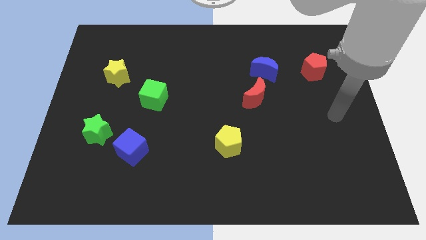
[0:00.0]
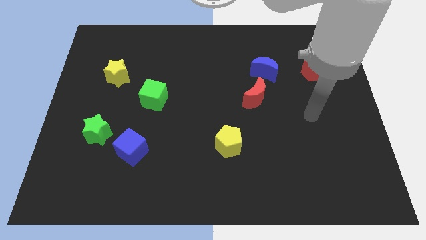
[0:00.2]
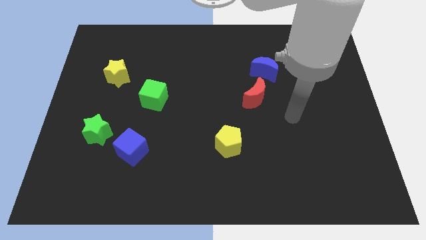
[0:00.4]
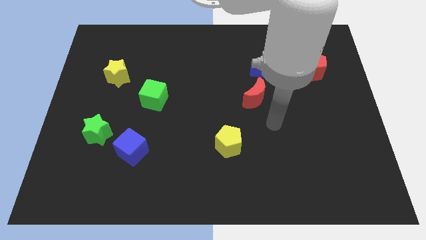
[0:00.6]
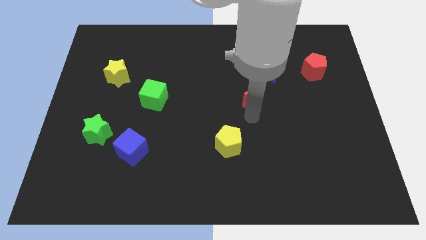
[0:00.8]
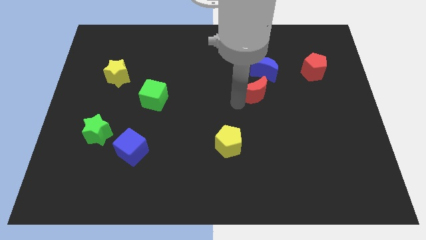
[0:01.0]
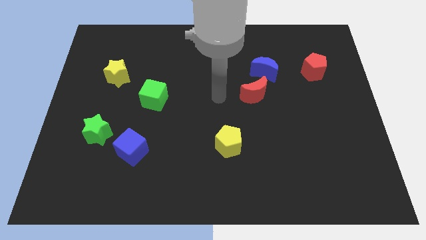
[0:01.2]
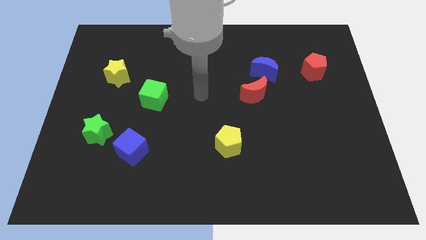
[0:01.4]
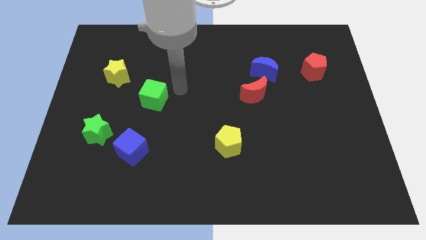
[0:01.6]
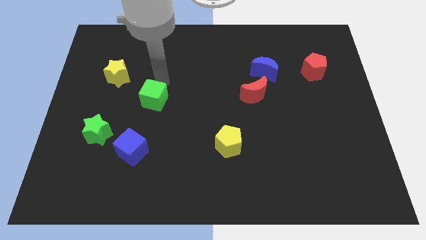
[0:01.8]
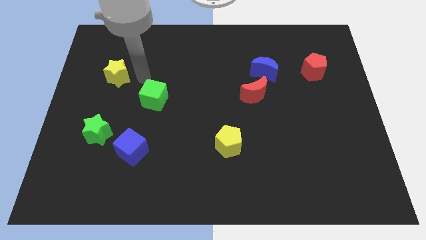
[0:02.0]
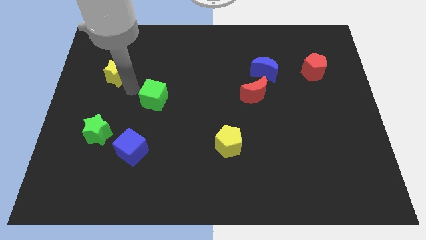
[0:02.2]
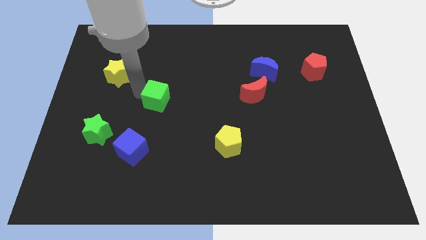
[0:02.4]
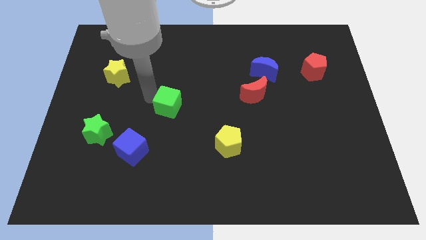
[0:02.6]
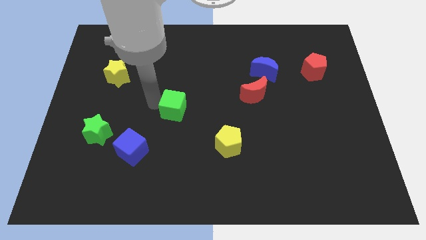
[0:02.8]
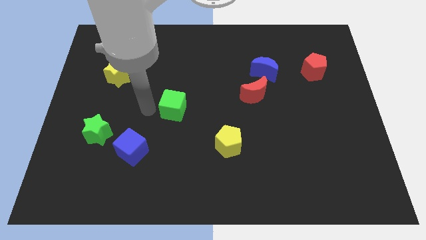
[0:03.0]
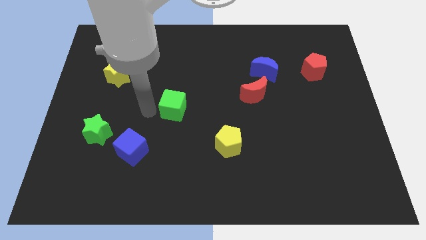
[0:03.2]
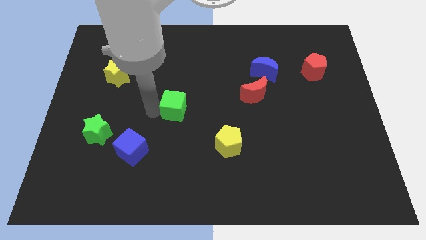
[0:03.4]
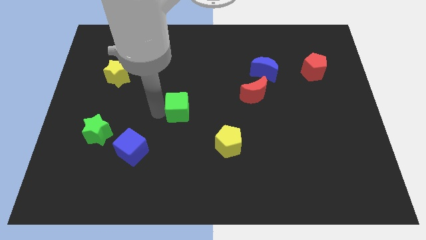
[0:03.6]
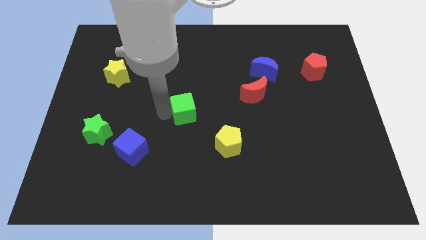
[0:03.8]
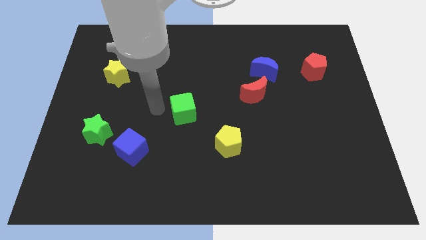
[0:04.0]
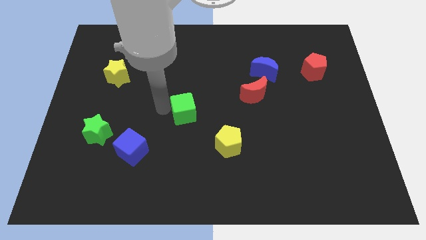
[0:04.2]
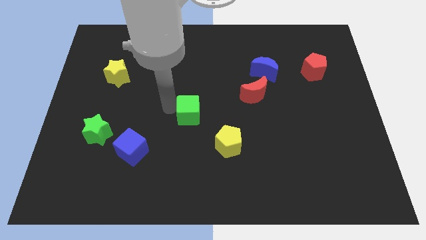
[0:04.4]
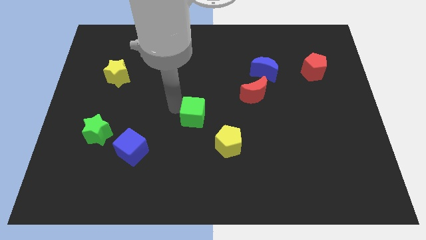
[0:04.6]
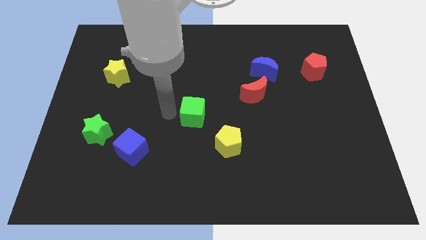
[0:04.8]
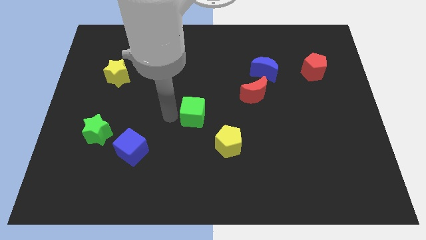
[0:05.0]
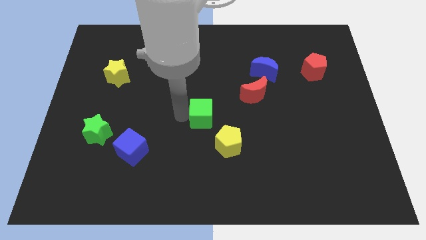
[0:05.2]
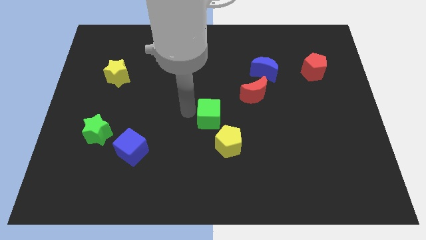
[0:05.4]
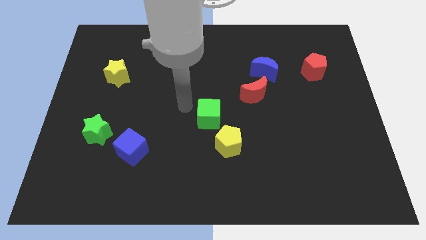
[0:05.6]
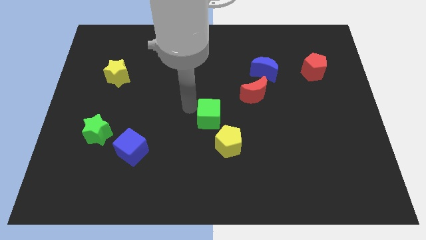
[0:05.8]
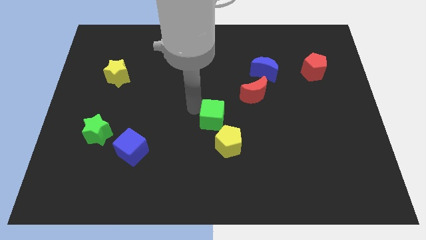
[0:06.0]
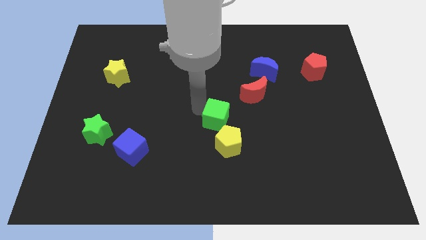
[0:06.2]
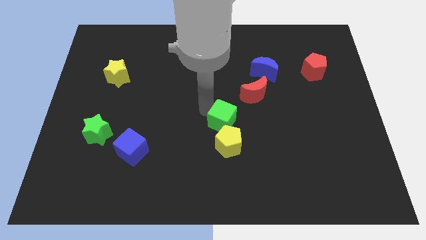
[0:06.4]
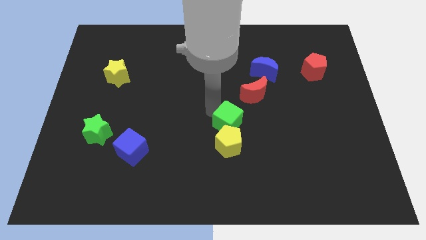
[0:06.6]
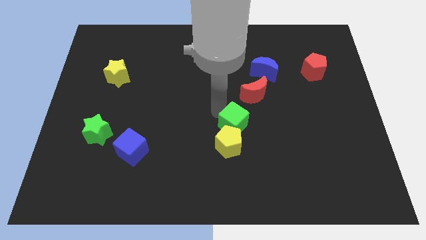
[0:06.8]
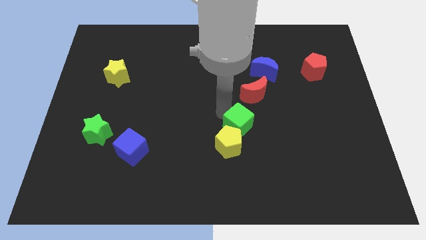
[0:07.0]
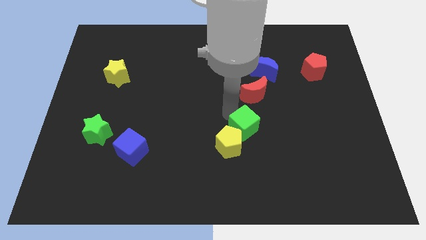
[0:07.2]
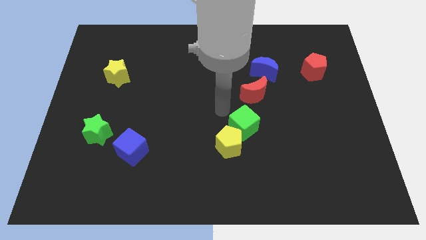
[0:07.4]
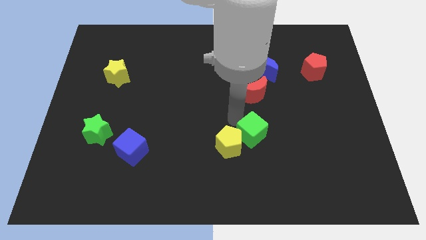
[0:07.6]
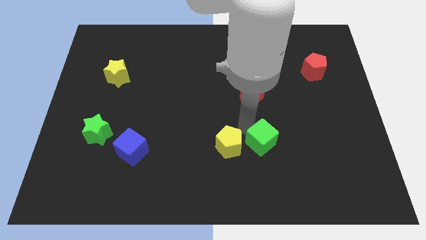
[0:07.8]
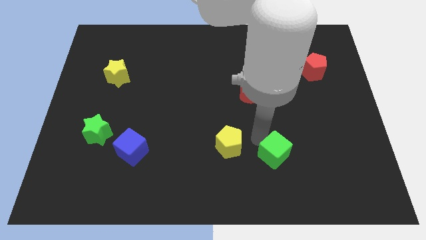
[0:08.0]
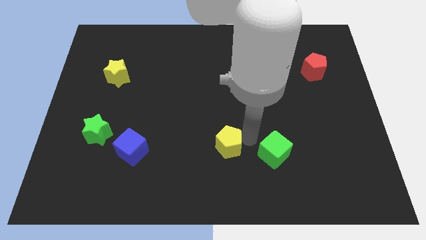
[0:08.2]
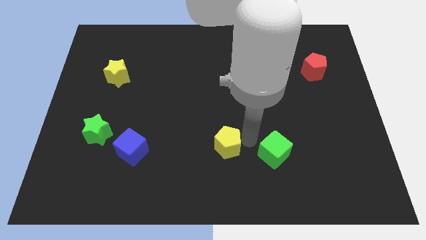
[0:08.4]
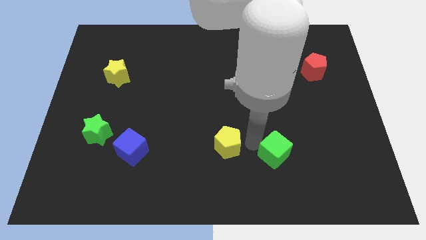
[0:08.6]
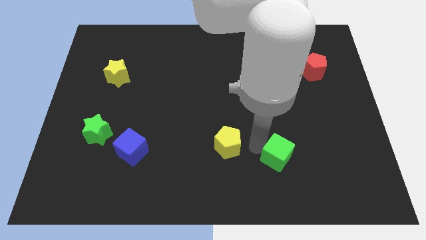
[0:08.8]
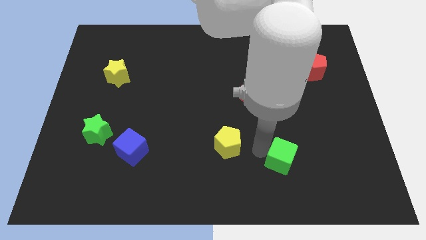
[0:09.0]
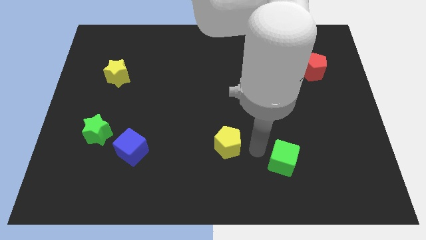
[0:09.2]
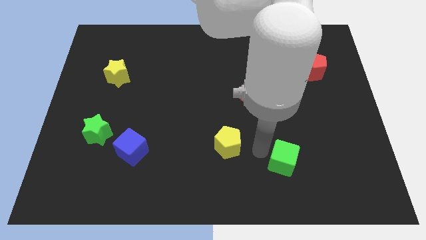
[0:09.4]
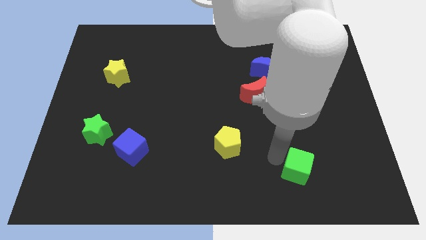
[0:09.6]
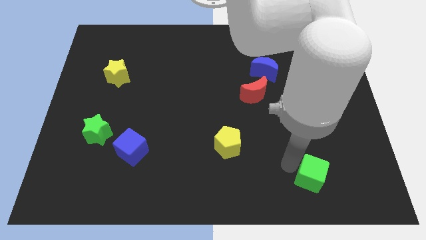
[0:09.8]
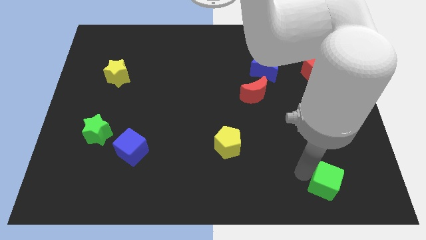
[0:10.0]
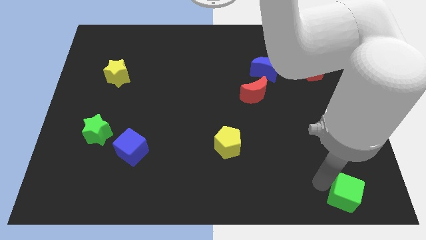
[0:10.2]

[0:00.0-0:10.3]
push the green cube to the lower right corner

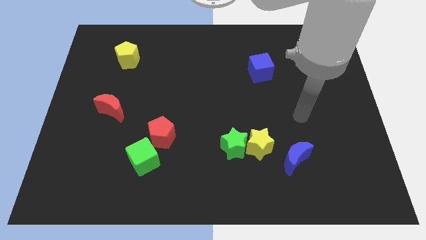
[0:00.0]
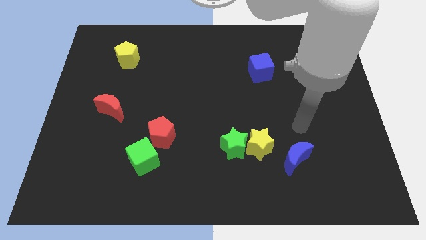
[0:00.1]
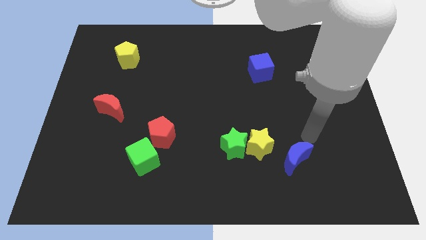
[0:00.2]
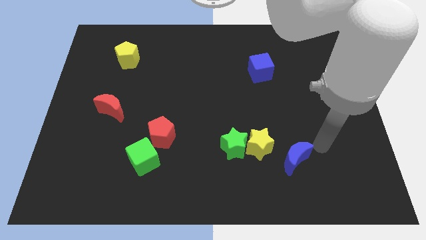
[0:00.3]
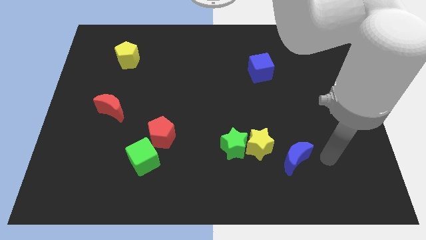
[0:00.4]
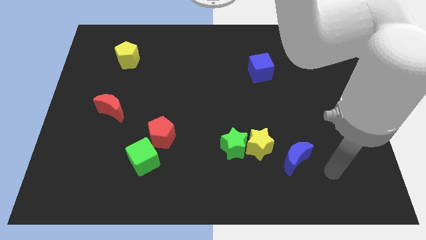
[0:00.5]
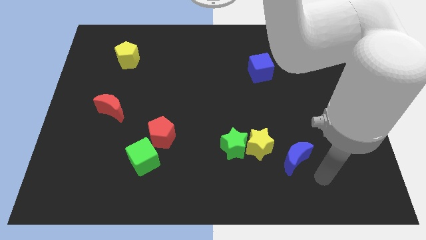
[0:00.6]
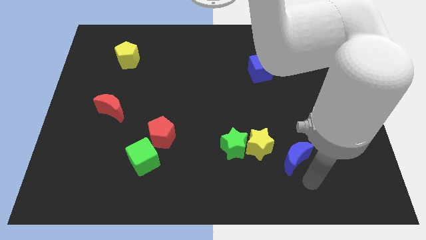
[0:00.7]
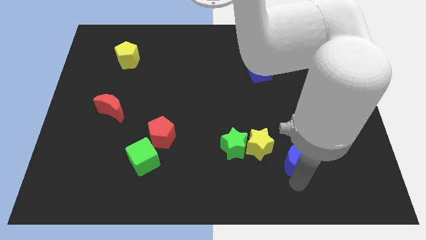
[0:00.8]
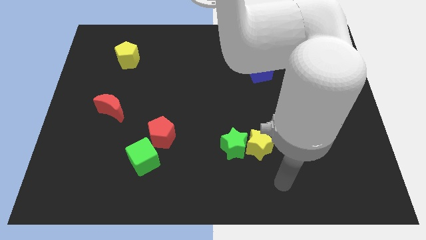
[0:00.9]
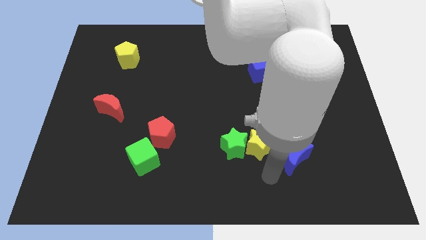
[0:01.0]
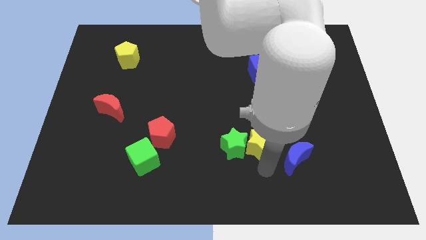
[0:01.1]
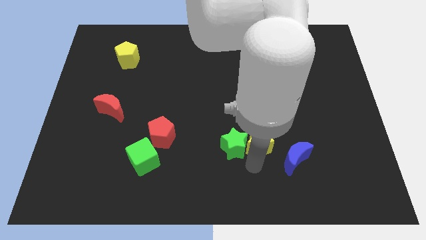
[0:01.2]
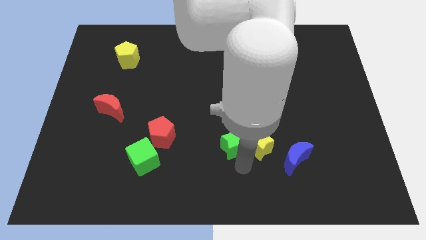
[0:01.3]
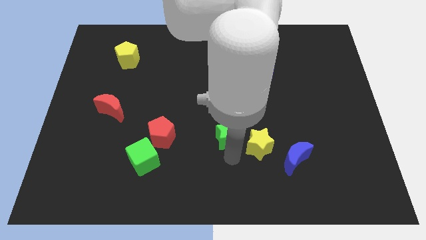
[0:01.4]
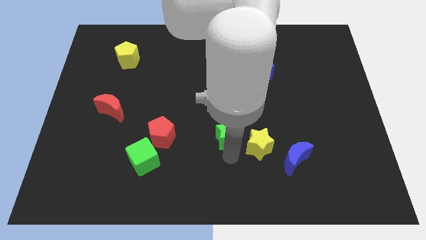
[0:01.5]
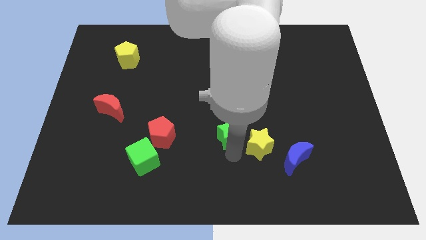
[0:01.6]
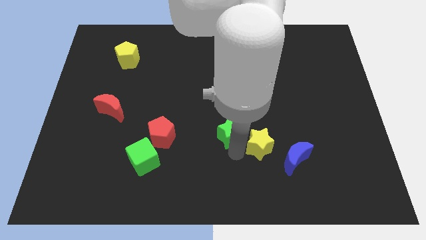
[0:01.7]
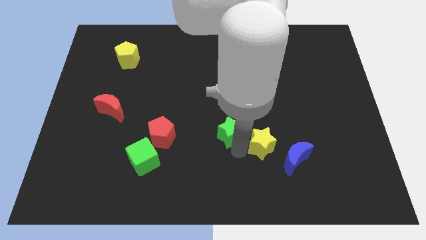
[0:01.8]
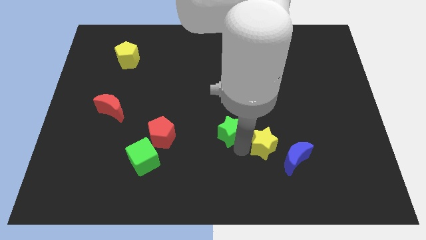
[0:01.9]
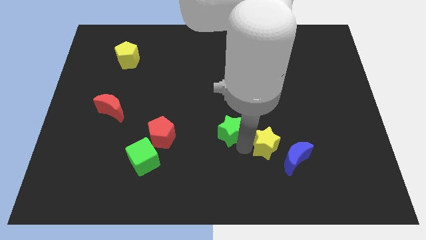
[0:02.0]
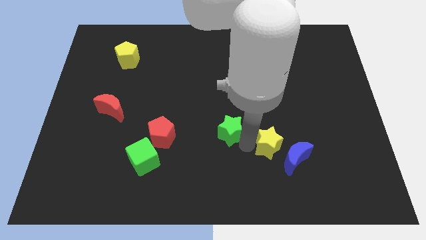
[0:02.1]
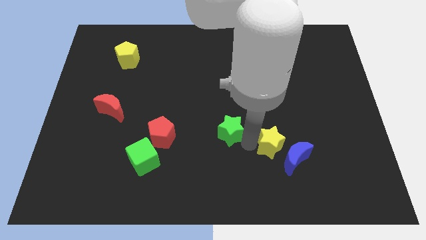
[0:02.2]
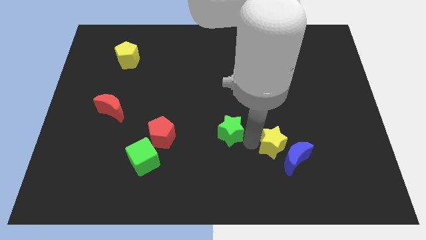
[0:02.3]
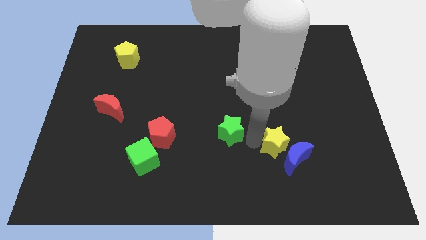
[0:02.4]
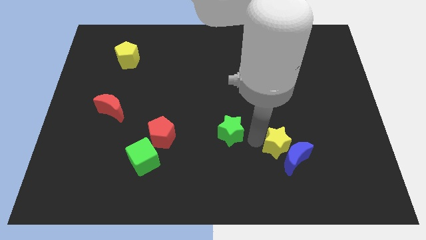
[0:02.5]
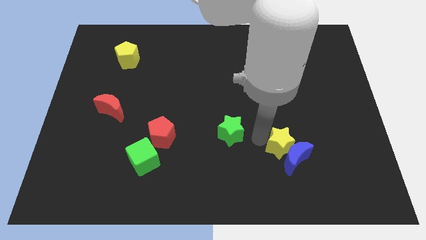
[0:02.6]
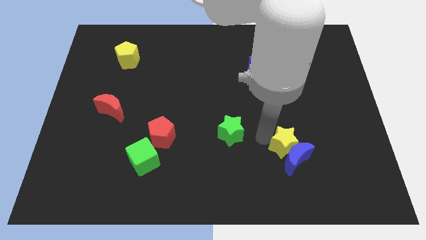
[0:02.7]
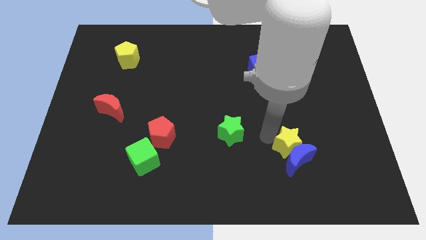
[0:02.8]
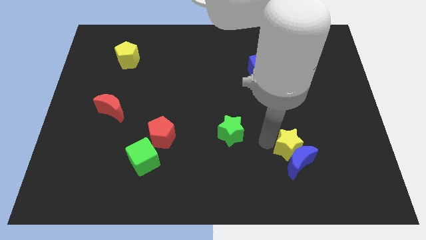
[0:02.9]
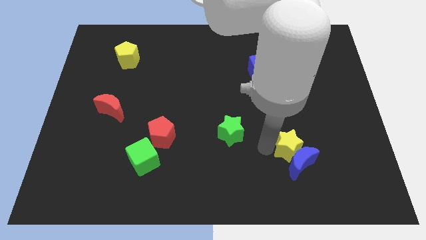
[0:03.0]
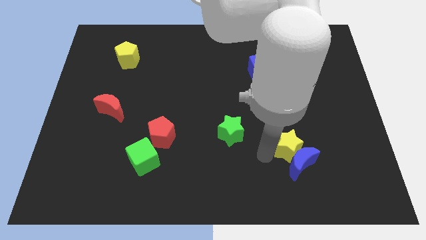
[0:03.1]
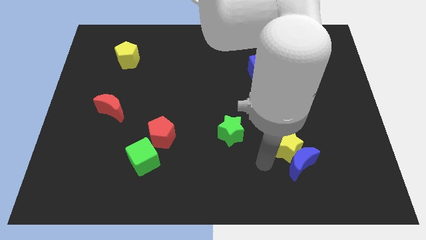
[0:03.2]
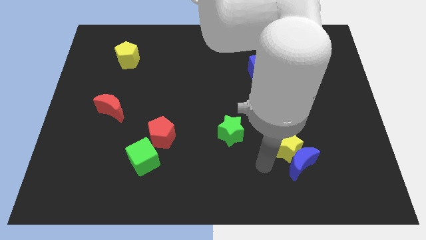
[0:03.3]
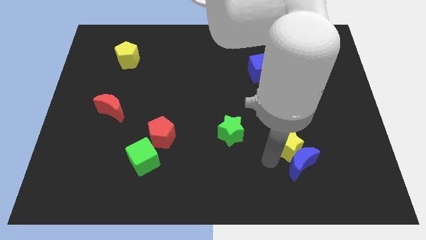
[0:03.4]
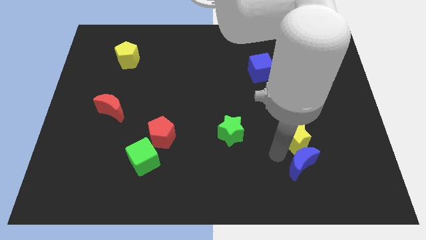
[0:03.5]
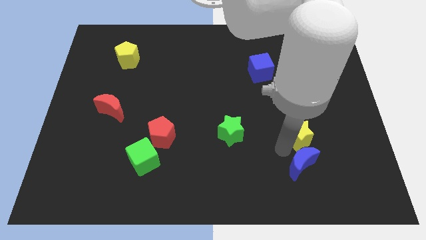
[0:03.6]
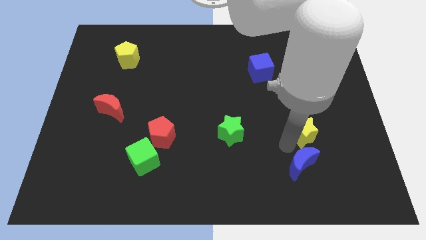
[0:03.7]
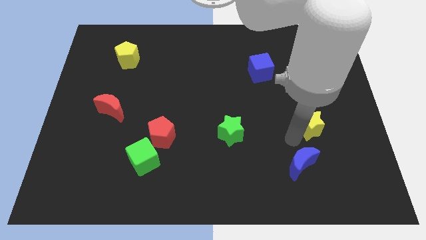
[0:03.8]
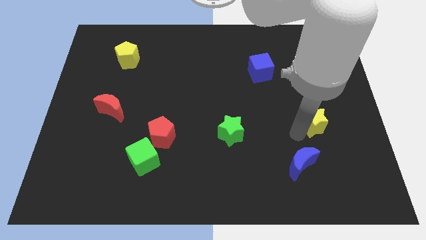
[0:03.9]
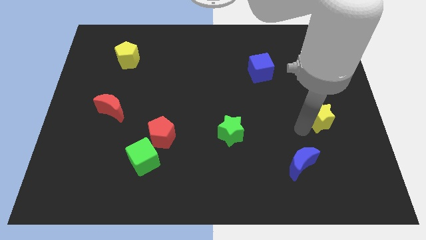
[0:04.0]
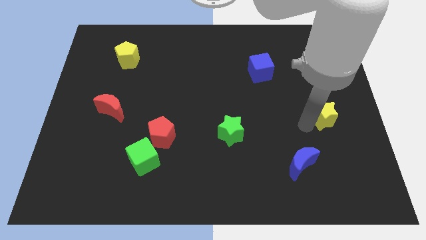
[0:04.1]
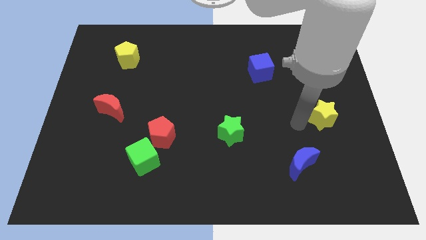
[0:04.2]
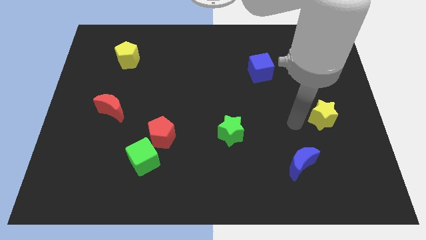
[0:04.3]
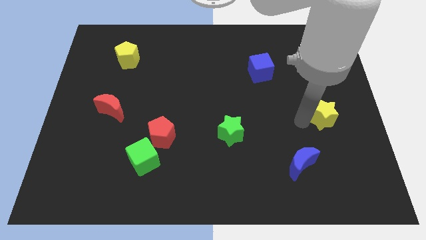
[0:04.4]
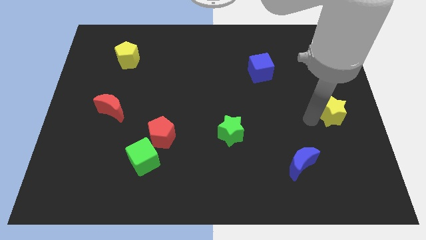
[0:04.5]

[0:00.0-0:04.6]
put the yellow star to the right side
